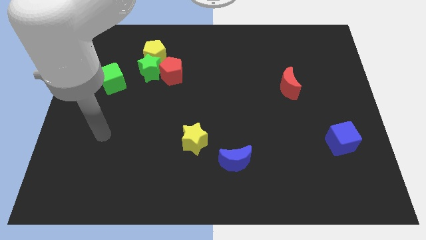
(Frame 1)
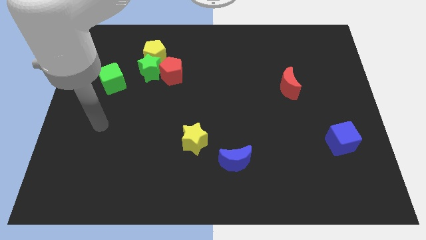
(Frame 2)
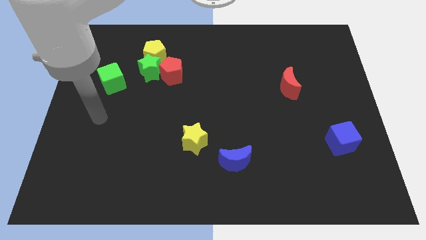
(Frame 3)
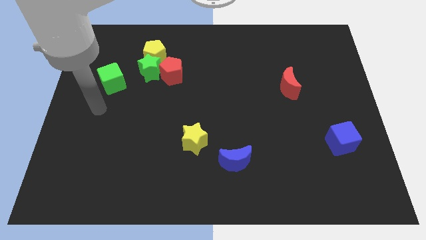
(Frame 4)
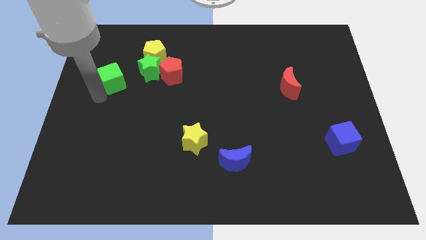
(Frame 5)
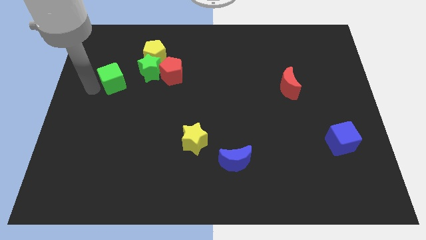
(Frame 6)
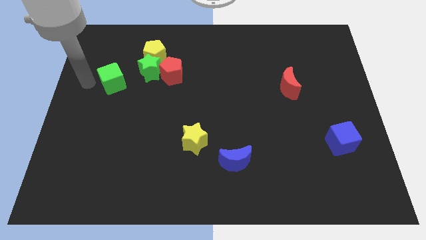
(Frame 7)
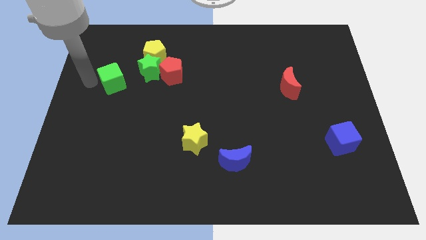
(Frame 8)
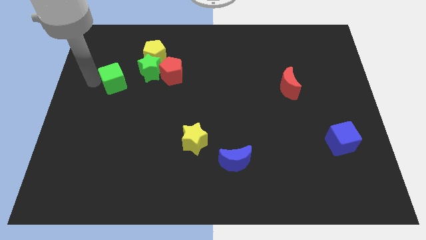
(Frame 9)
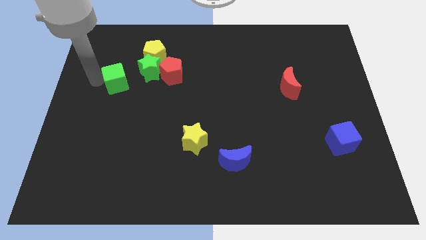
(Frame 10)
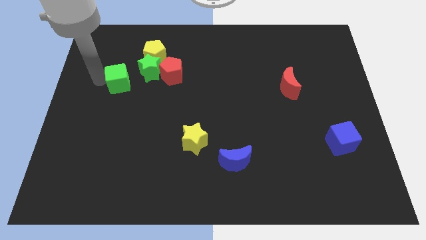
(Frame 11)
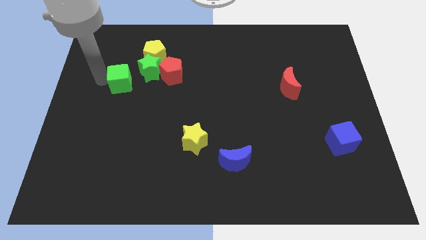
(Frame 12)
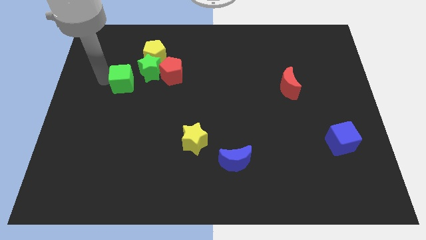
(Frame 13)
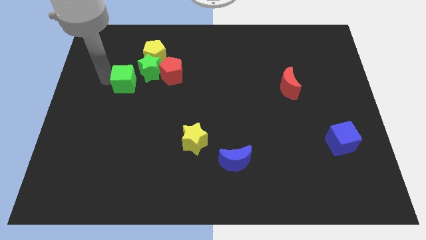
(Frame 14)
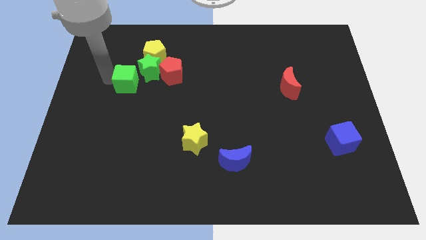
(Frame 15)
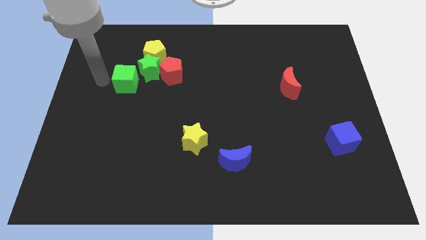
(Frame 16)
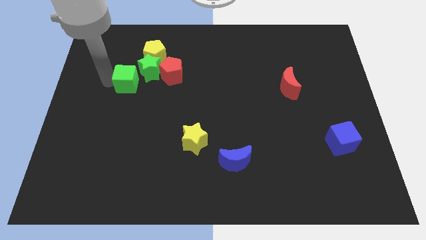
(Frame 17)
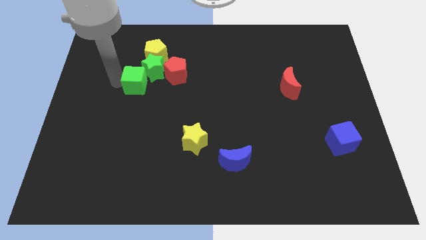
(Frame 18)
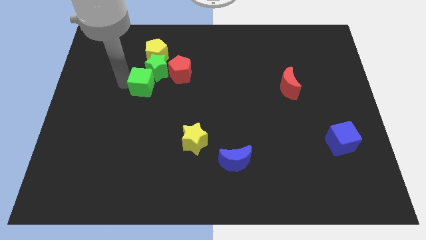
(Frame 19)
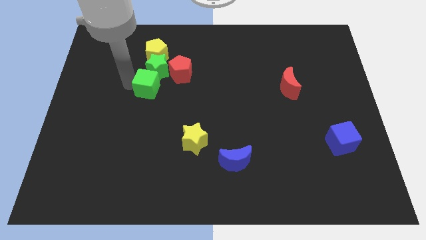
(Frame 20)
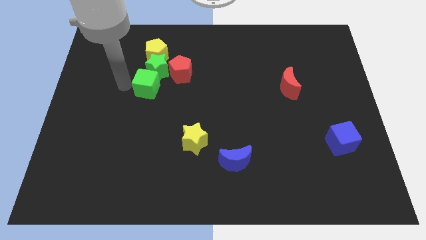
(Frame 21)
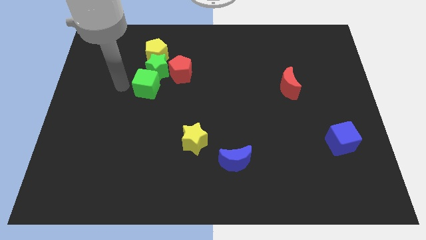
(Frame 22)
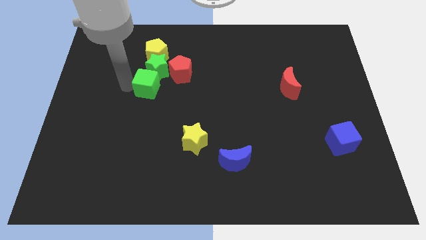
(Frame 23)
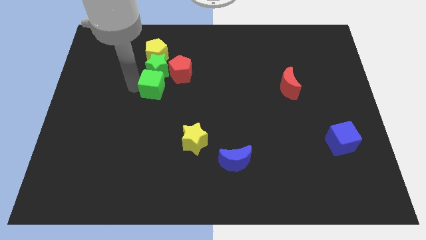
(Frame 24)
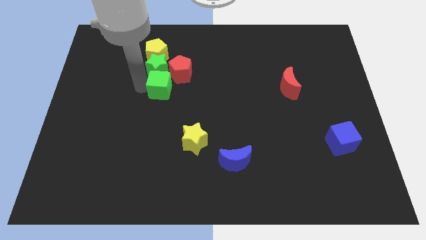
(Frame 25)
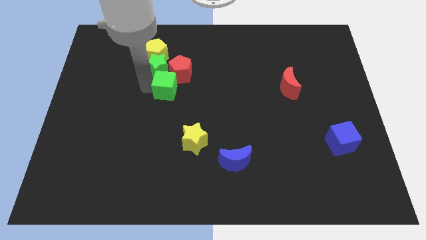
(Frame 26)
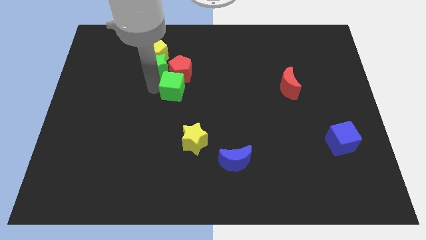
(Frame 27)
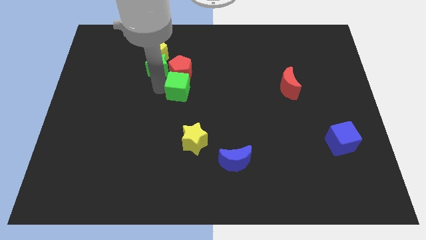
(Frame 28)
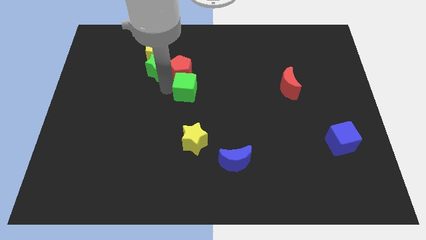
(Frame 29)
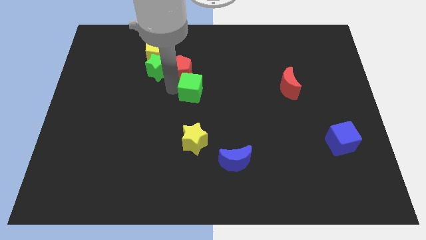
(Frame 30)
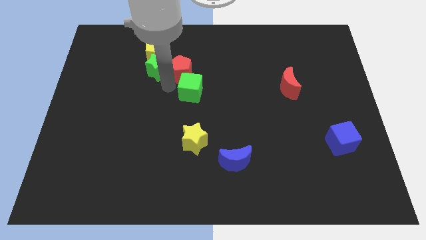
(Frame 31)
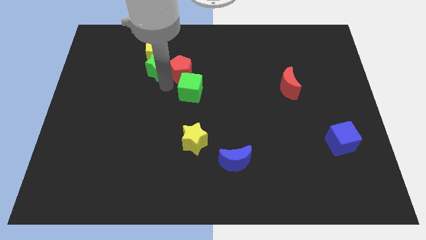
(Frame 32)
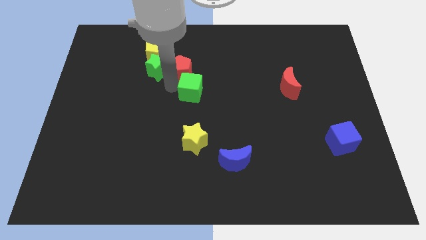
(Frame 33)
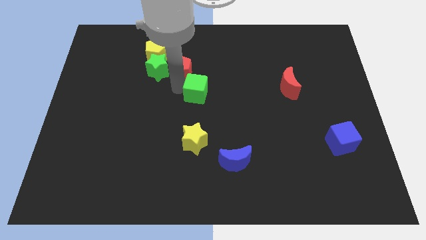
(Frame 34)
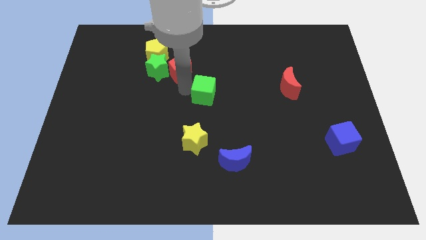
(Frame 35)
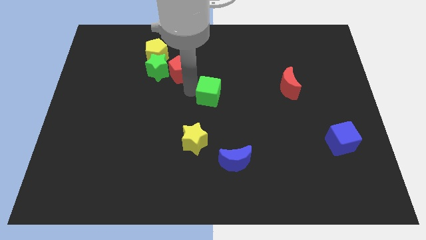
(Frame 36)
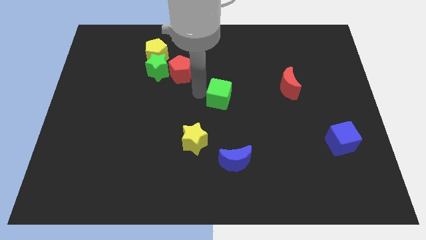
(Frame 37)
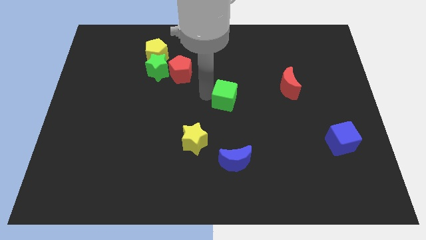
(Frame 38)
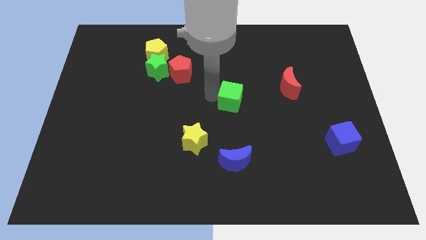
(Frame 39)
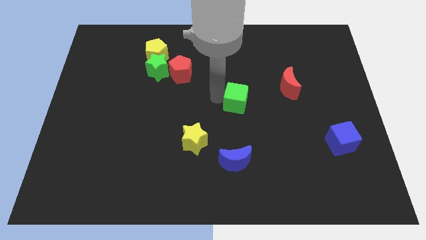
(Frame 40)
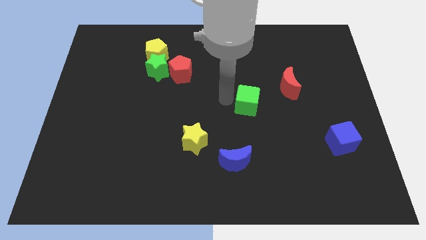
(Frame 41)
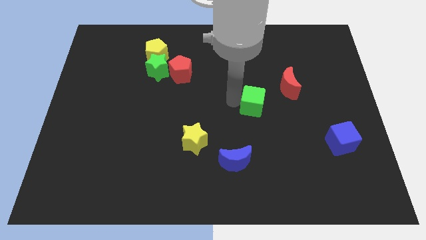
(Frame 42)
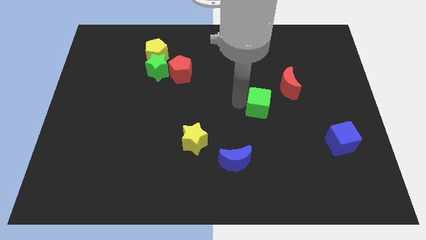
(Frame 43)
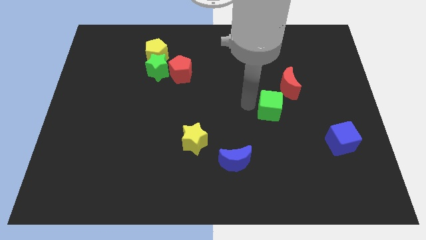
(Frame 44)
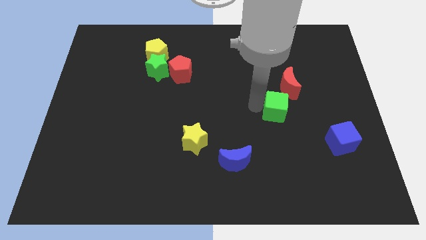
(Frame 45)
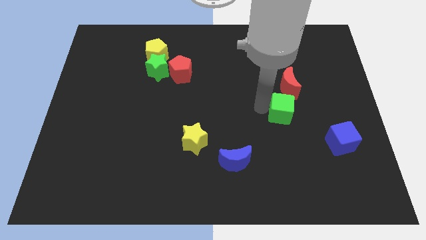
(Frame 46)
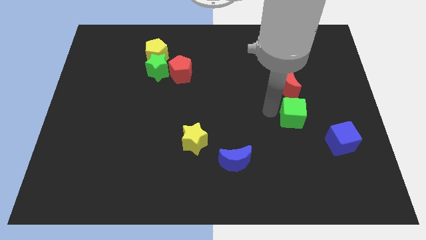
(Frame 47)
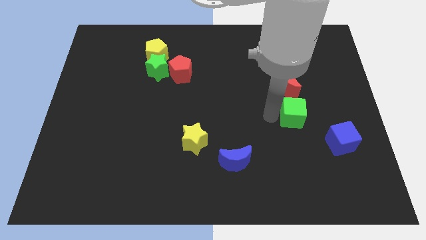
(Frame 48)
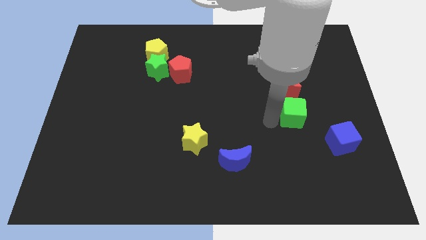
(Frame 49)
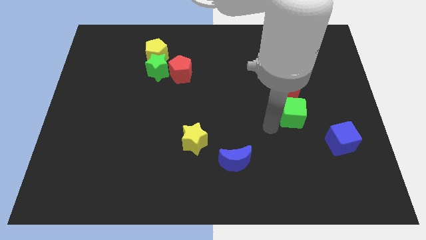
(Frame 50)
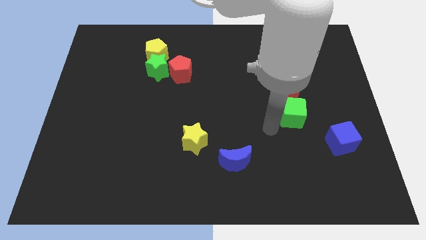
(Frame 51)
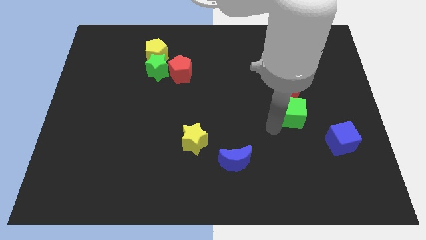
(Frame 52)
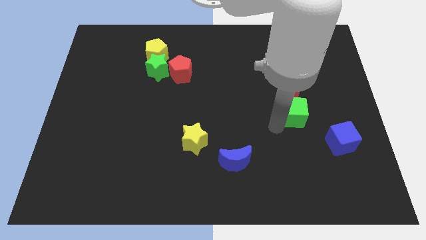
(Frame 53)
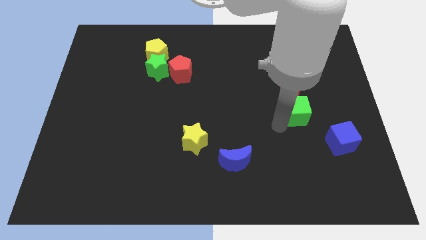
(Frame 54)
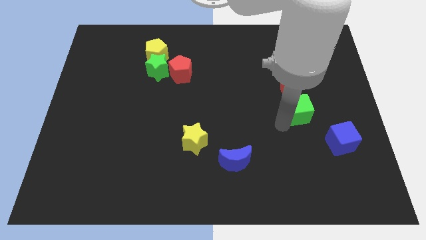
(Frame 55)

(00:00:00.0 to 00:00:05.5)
slide the green cube to the bottom right side of the red moon

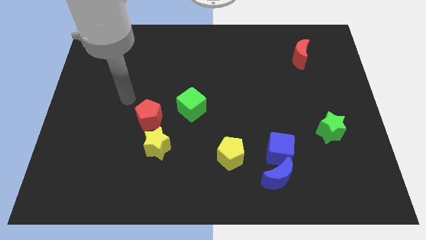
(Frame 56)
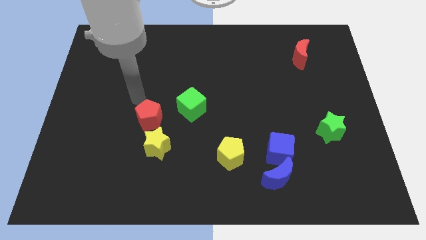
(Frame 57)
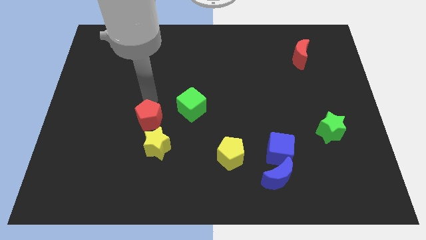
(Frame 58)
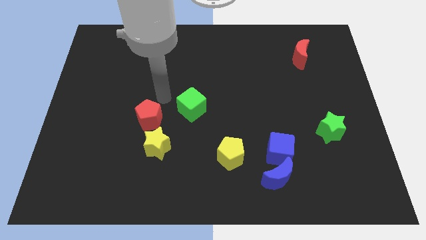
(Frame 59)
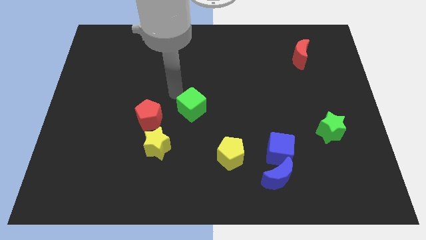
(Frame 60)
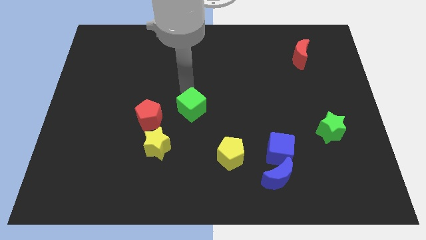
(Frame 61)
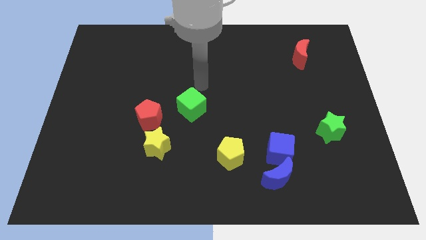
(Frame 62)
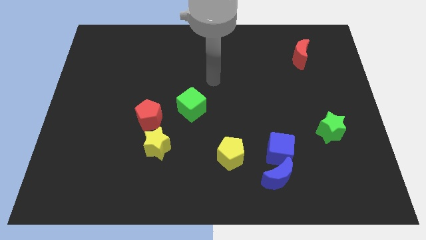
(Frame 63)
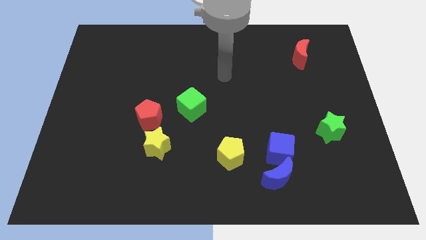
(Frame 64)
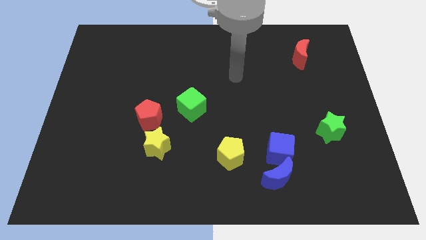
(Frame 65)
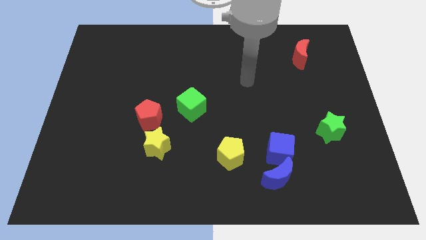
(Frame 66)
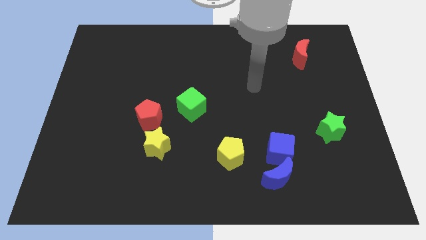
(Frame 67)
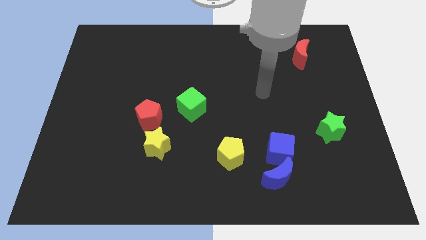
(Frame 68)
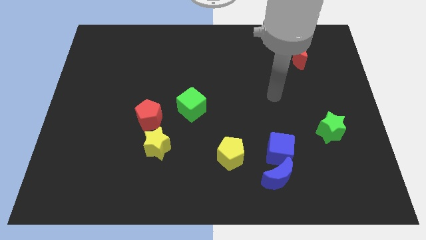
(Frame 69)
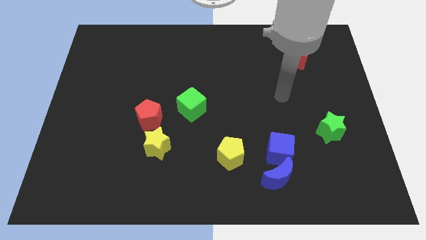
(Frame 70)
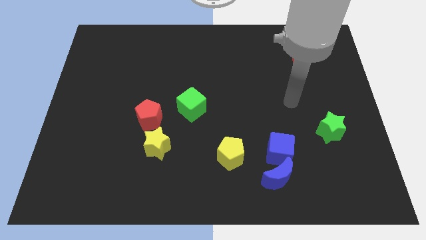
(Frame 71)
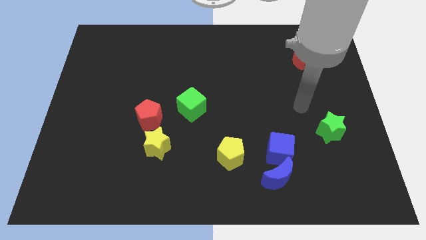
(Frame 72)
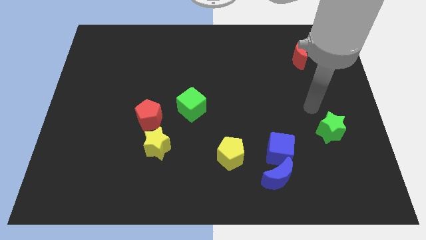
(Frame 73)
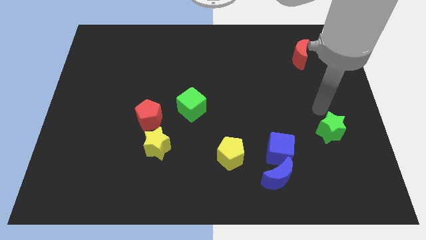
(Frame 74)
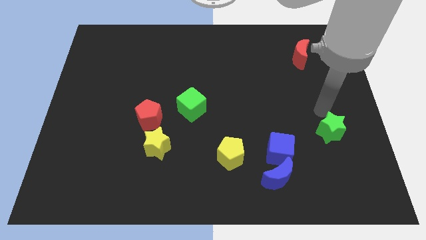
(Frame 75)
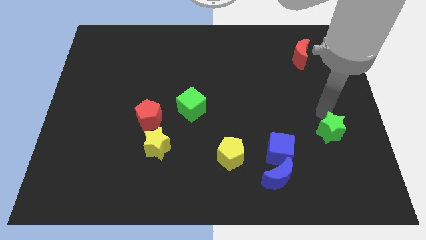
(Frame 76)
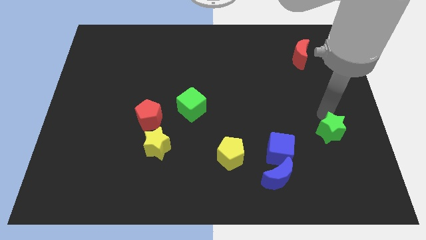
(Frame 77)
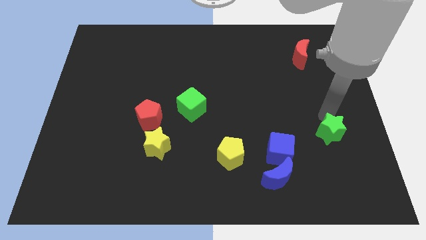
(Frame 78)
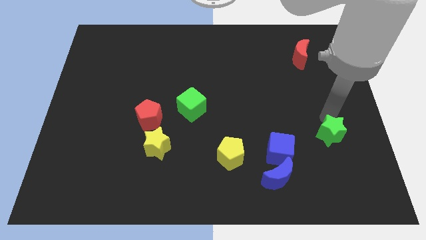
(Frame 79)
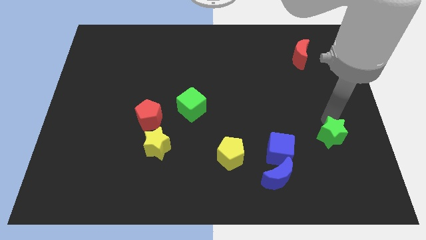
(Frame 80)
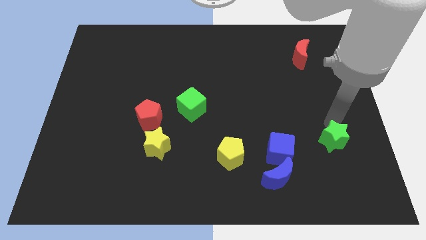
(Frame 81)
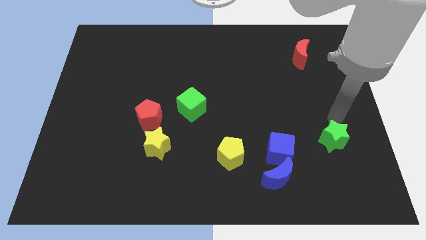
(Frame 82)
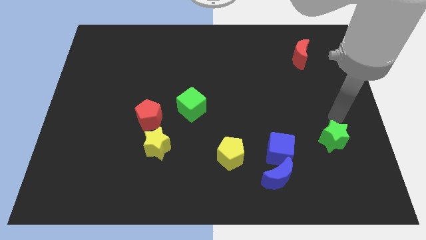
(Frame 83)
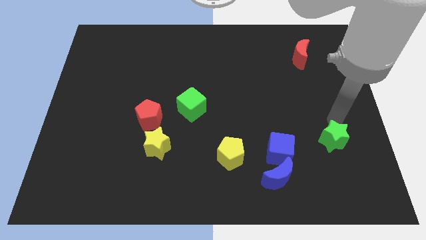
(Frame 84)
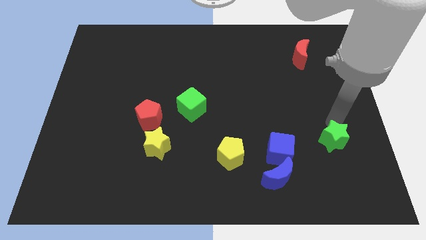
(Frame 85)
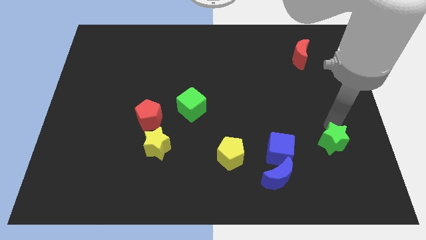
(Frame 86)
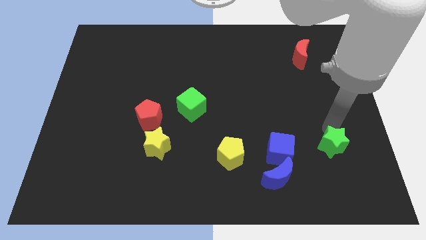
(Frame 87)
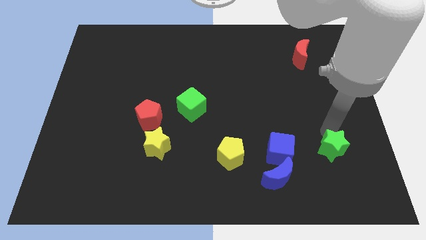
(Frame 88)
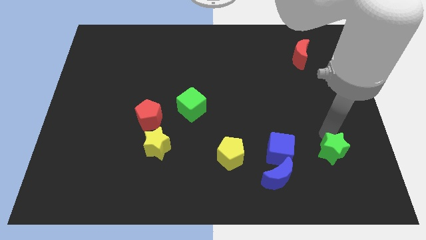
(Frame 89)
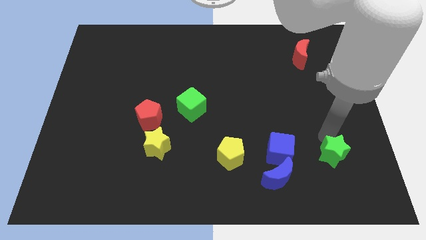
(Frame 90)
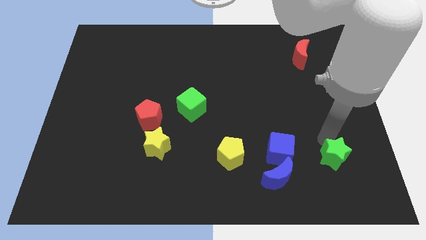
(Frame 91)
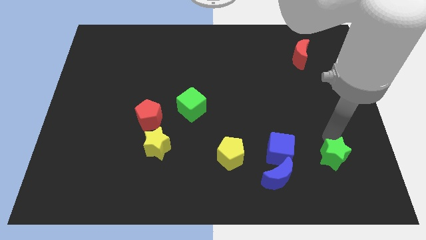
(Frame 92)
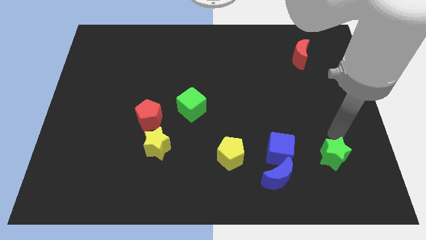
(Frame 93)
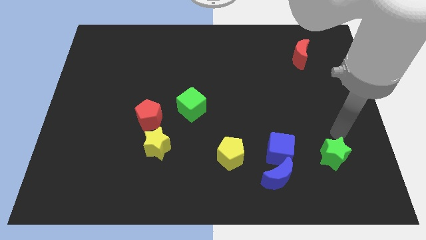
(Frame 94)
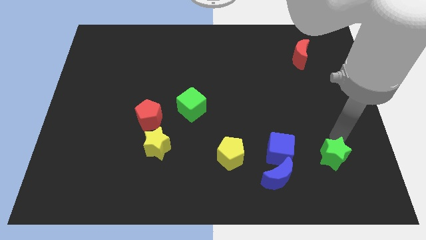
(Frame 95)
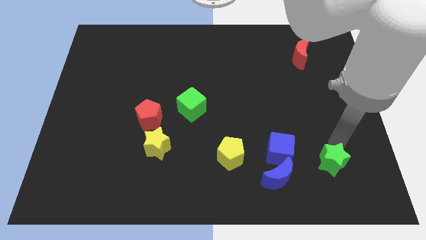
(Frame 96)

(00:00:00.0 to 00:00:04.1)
move the green star to the right of the blue moon
